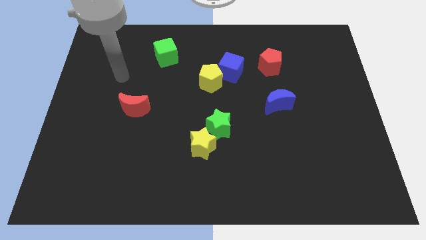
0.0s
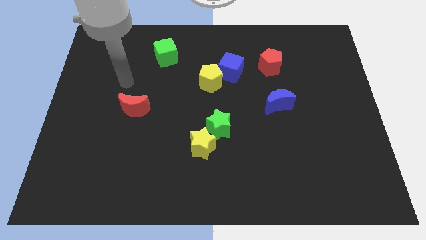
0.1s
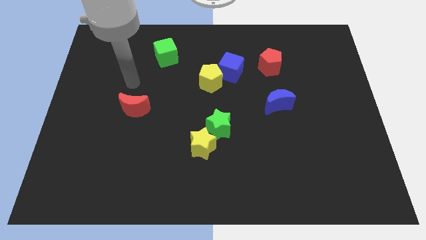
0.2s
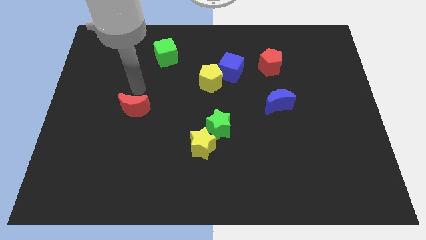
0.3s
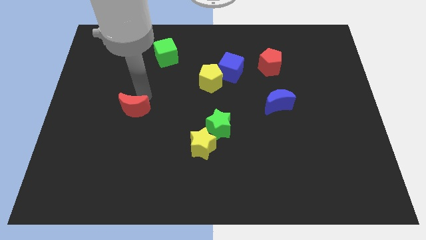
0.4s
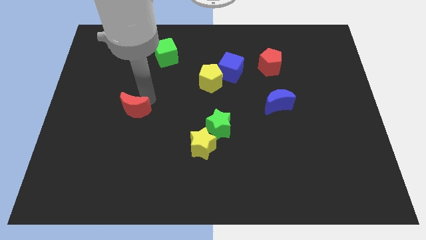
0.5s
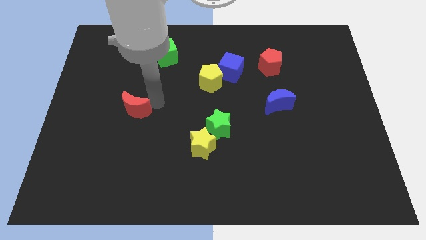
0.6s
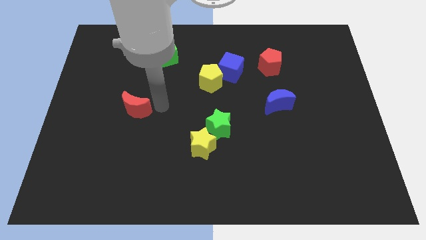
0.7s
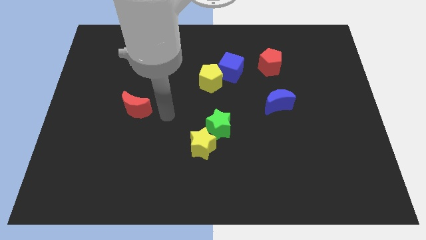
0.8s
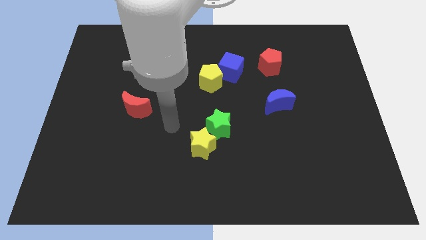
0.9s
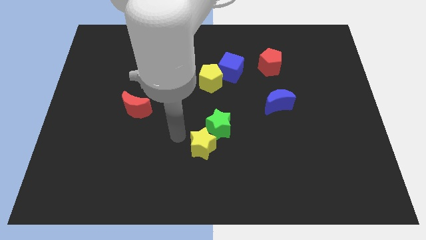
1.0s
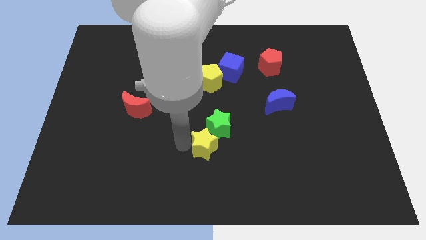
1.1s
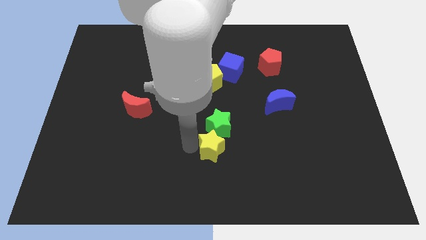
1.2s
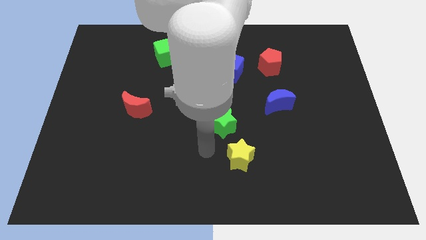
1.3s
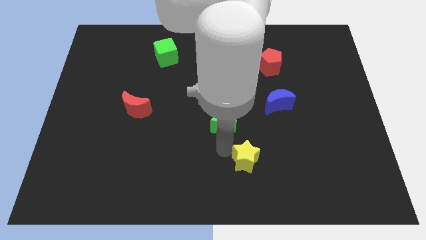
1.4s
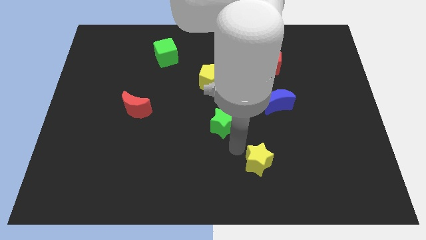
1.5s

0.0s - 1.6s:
move the green star away from the yellow star

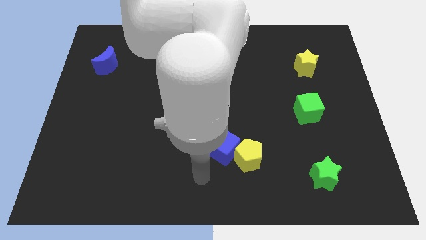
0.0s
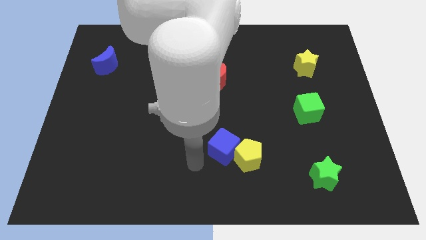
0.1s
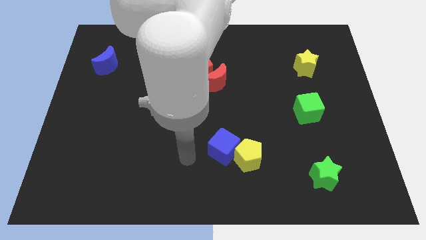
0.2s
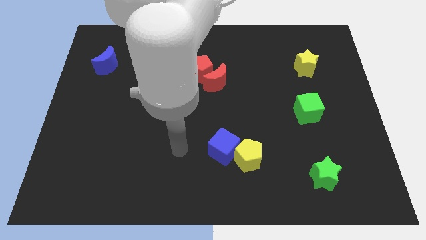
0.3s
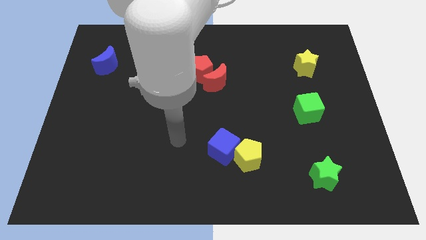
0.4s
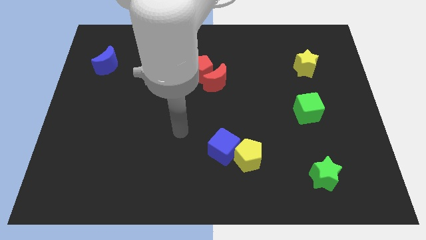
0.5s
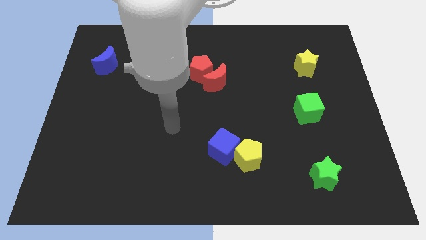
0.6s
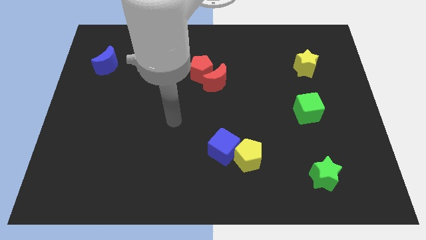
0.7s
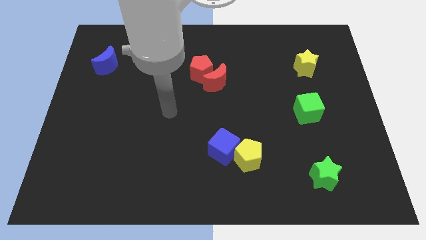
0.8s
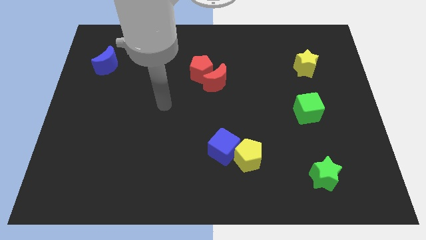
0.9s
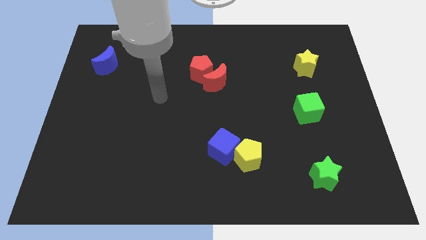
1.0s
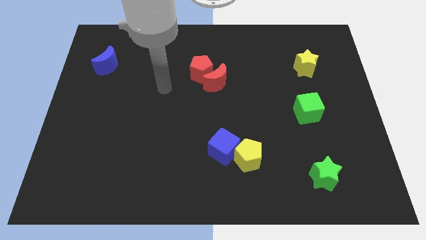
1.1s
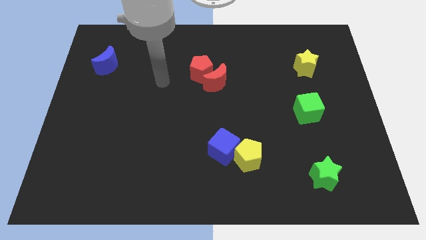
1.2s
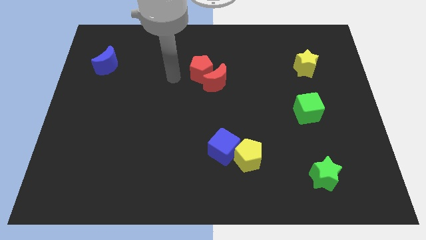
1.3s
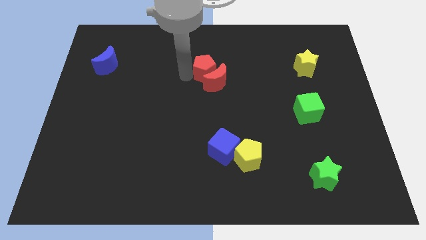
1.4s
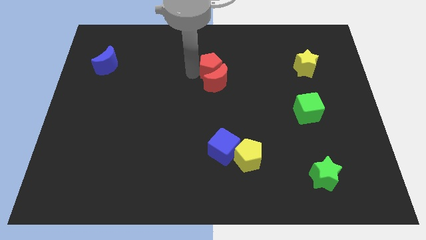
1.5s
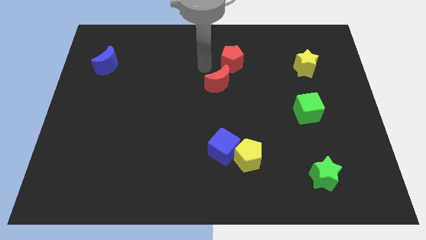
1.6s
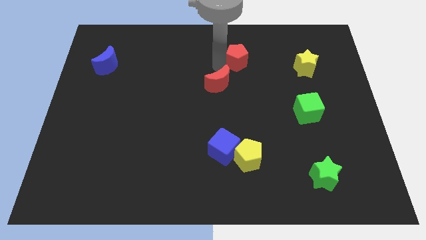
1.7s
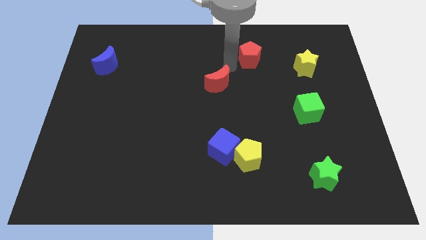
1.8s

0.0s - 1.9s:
pull the red moon apart from the red pentagon

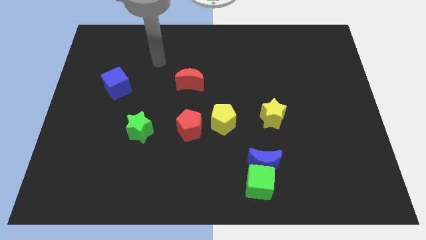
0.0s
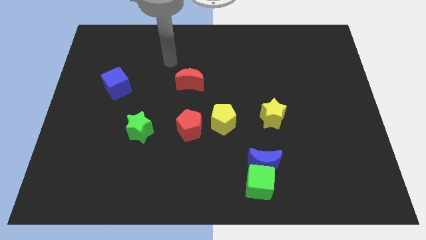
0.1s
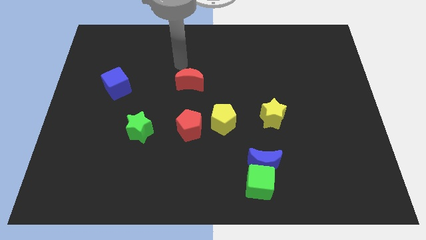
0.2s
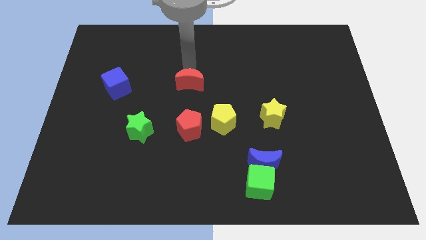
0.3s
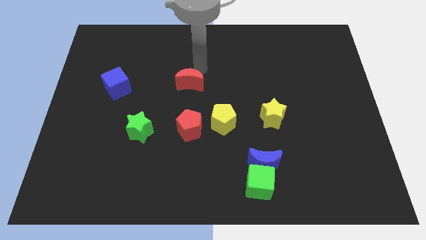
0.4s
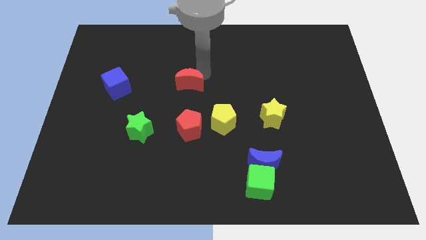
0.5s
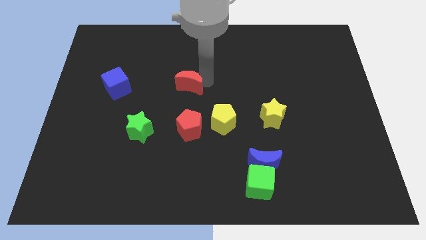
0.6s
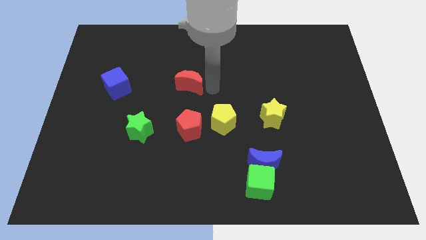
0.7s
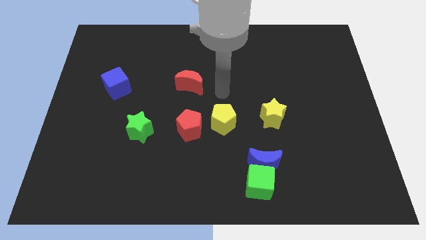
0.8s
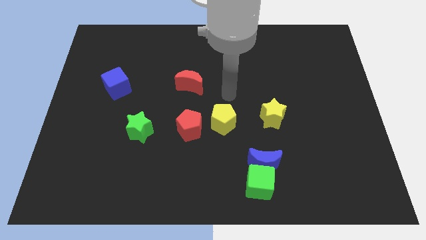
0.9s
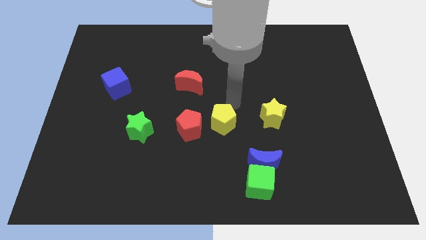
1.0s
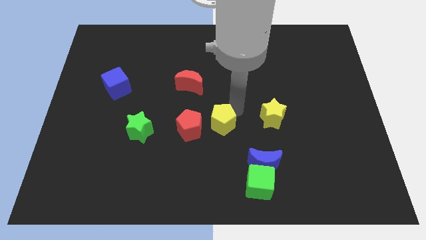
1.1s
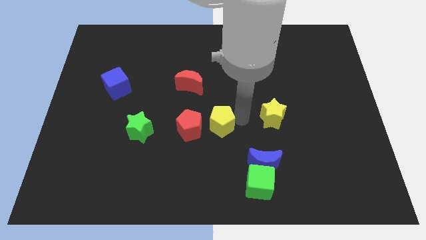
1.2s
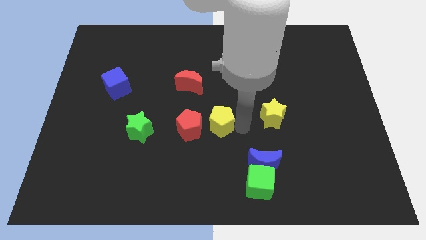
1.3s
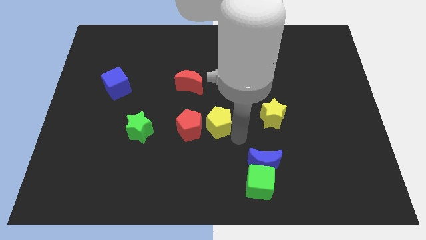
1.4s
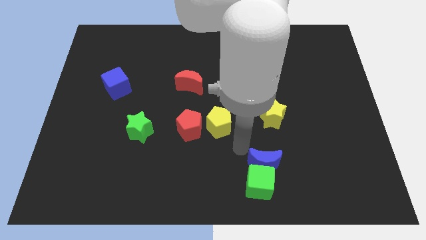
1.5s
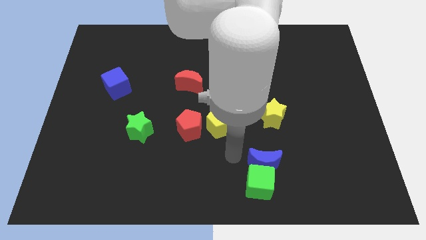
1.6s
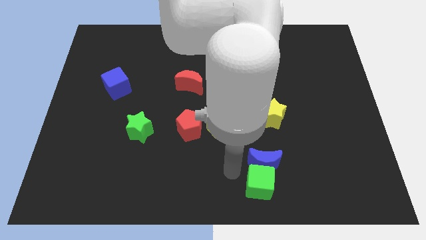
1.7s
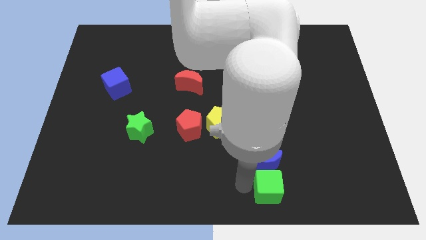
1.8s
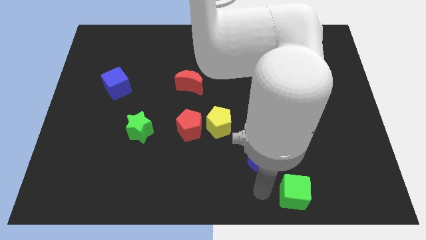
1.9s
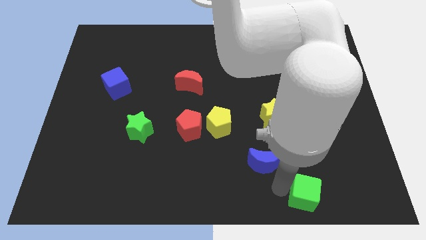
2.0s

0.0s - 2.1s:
separate the blue moon from the green cube

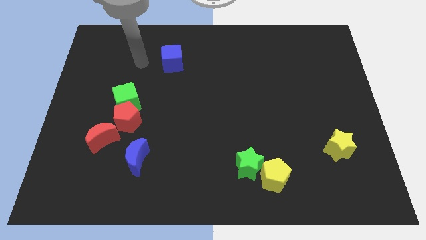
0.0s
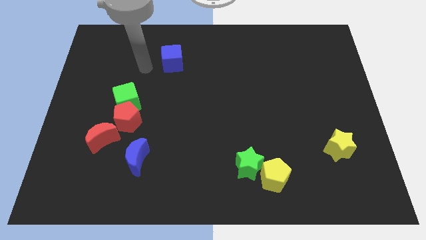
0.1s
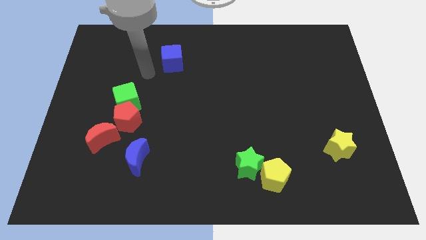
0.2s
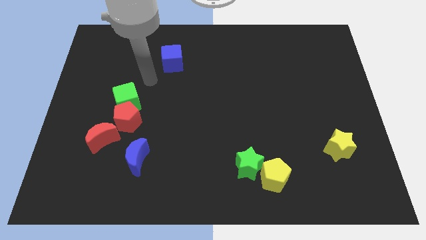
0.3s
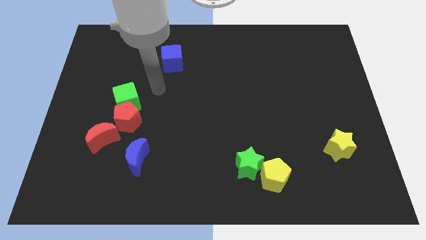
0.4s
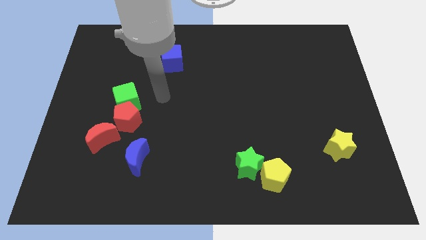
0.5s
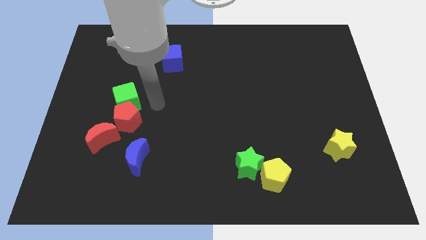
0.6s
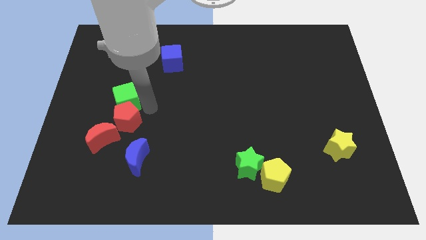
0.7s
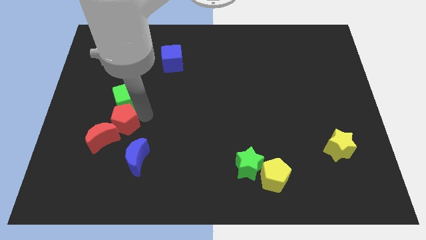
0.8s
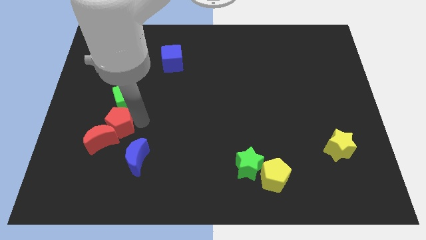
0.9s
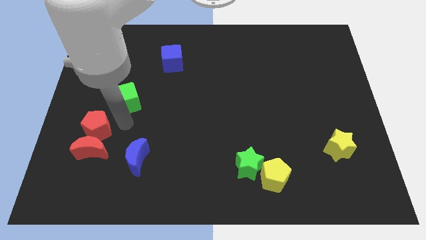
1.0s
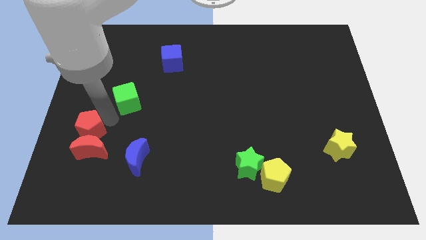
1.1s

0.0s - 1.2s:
pull the green cube apart from the red pentagon

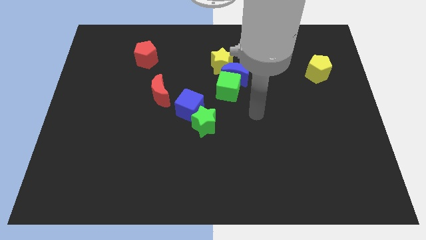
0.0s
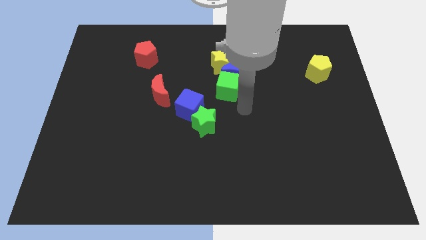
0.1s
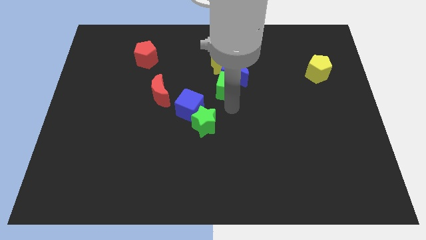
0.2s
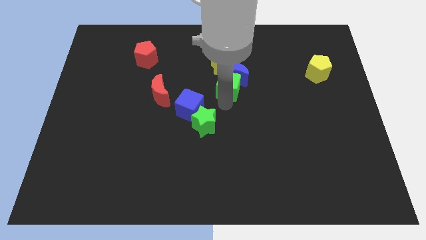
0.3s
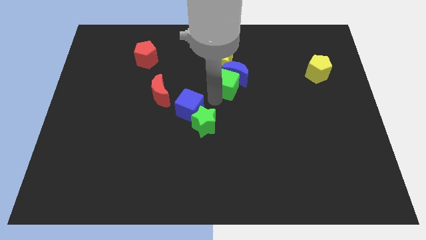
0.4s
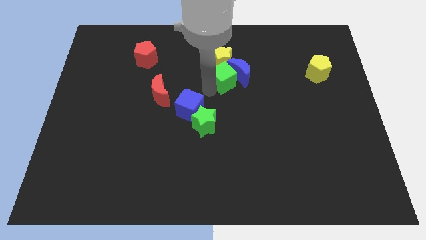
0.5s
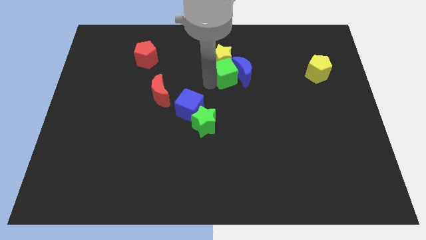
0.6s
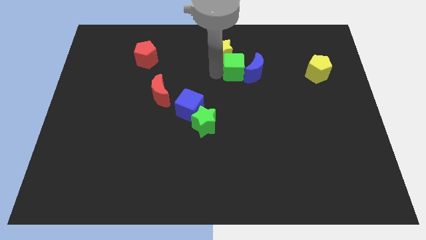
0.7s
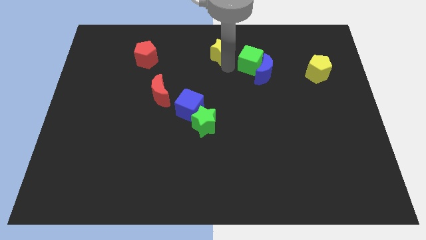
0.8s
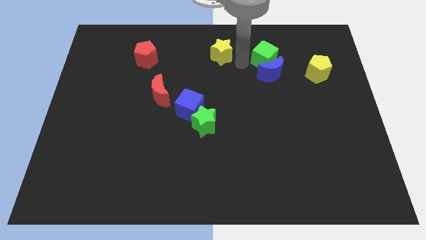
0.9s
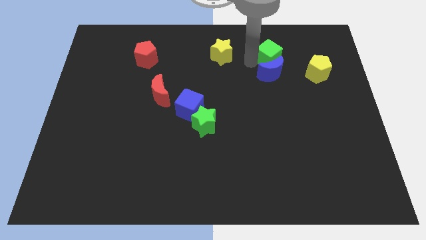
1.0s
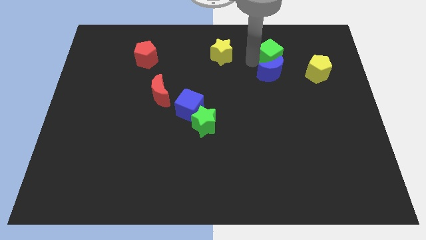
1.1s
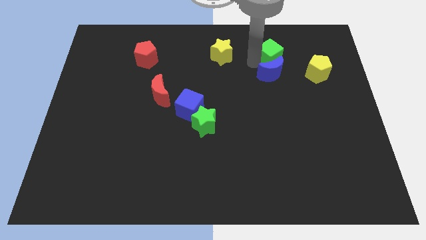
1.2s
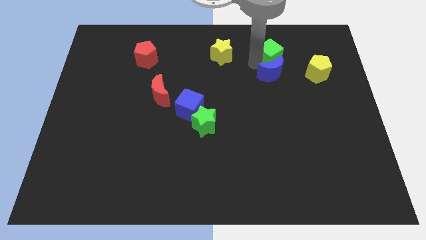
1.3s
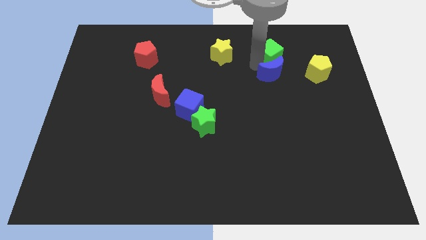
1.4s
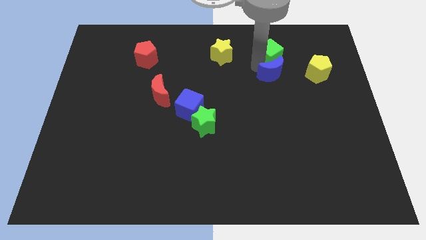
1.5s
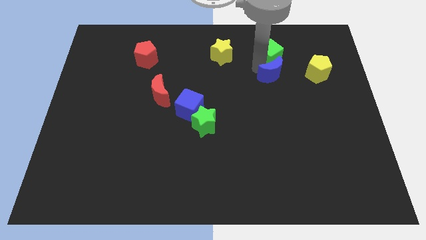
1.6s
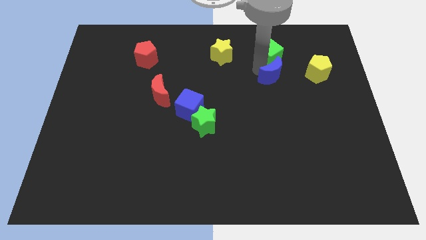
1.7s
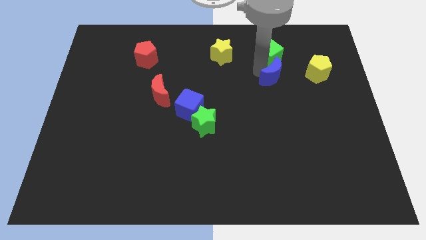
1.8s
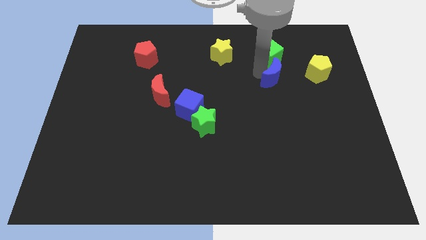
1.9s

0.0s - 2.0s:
separate the blue moon from the green cube and yellow star

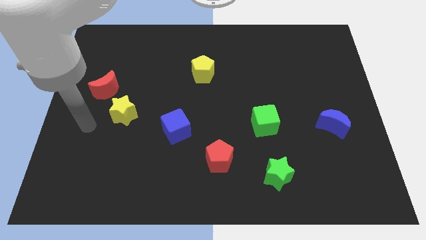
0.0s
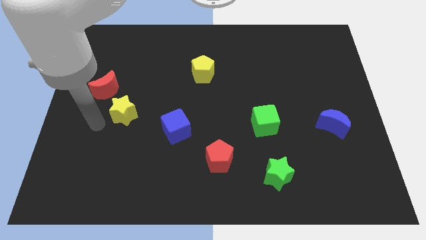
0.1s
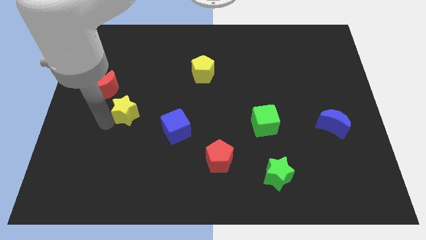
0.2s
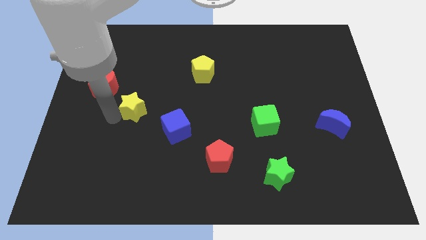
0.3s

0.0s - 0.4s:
separate the red moon from the yellow star

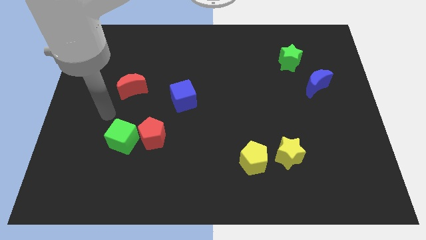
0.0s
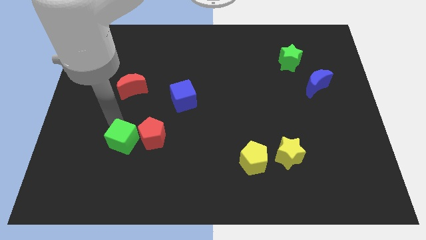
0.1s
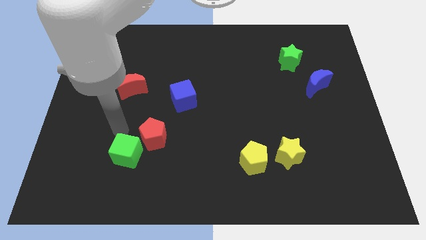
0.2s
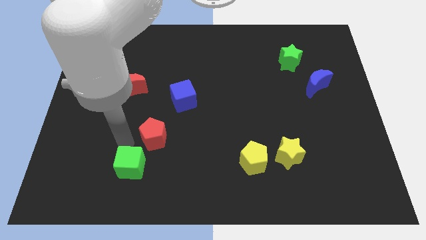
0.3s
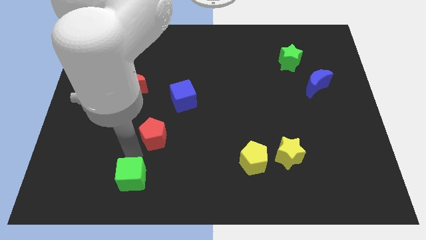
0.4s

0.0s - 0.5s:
move the red pentagon away from the green cube
